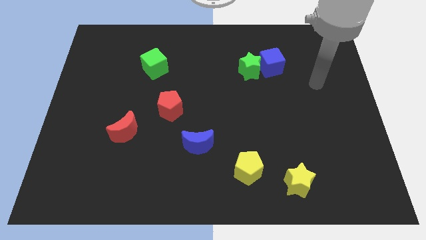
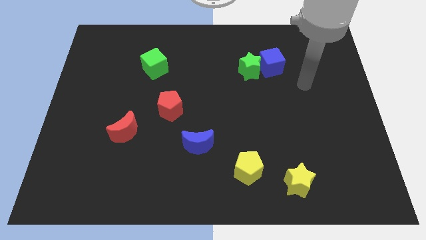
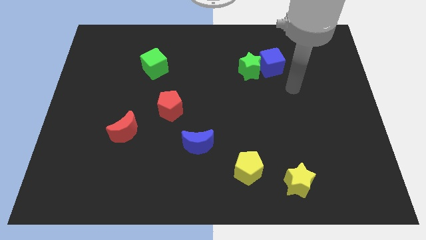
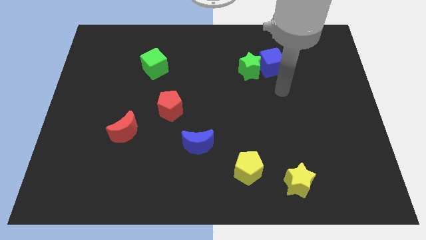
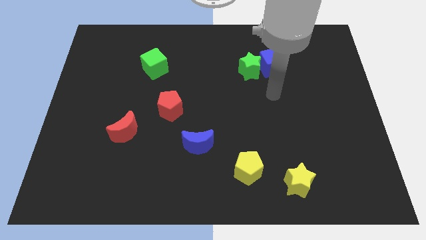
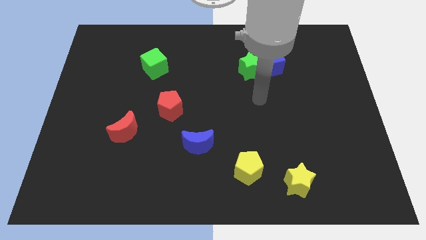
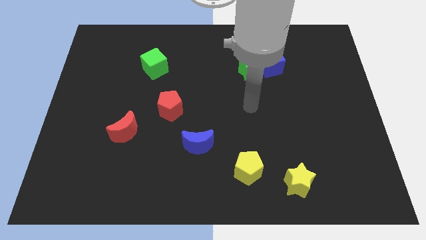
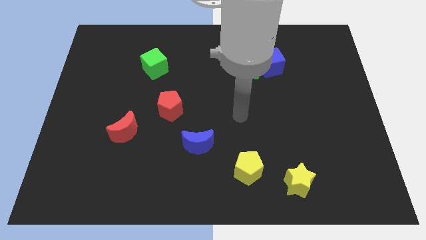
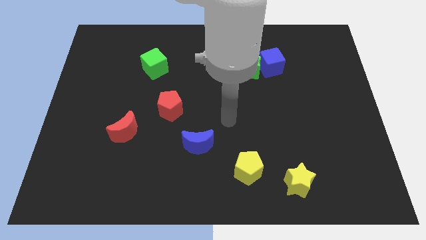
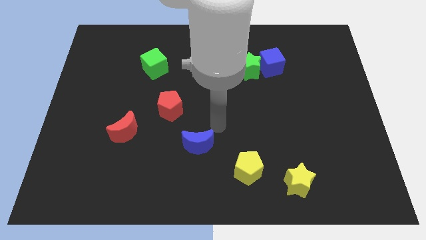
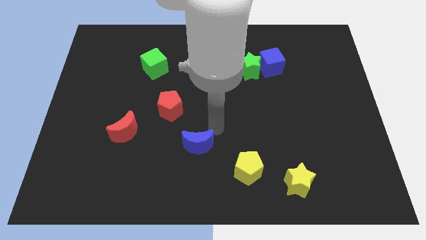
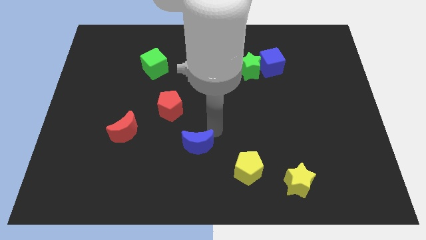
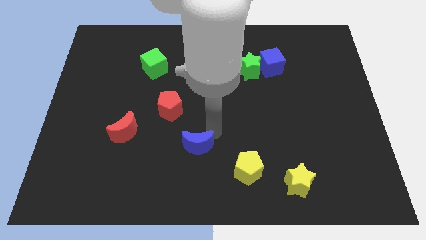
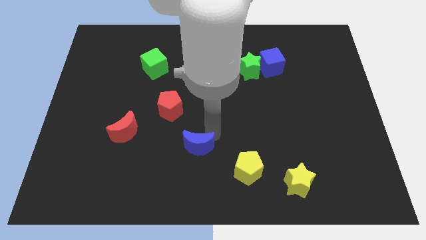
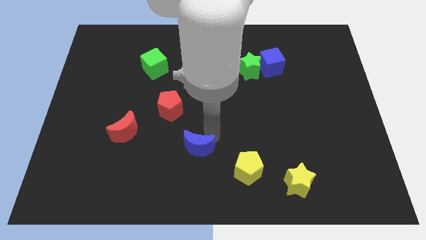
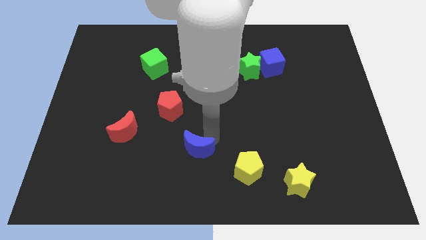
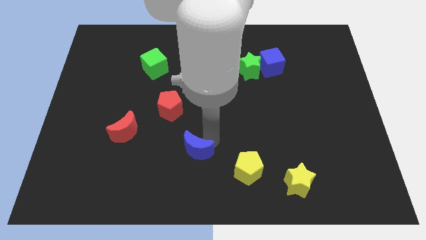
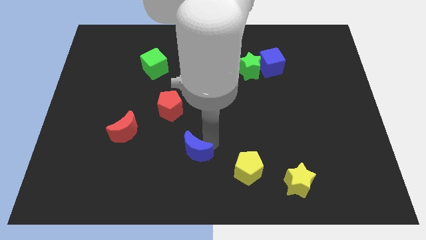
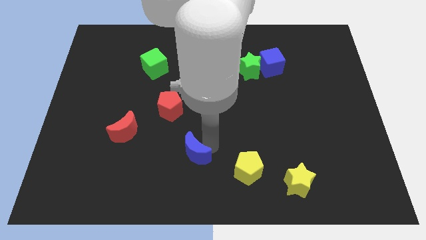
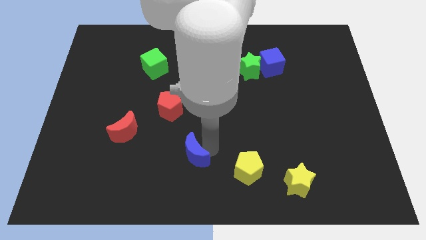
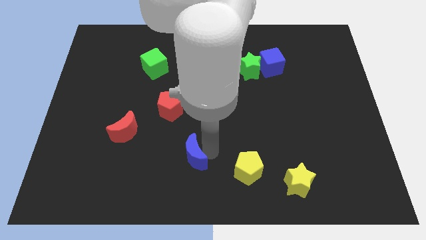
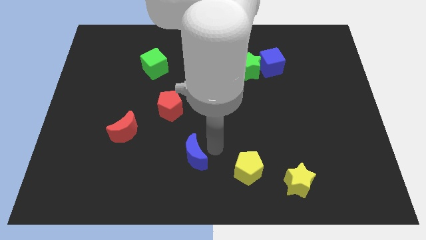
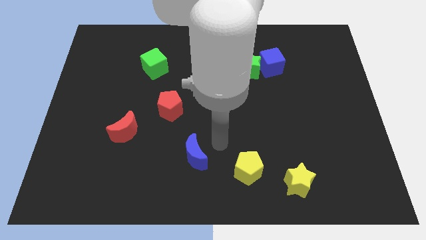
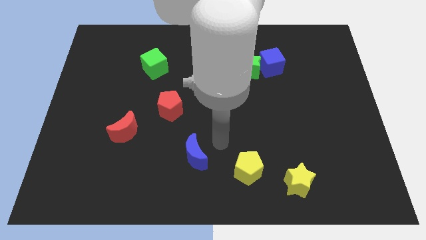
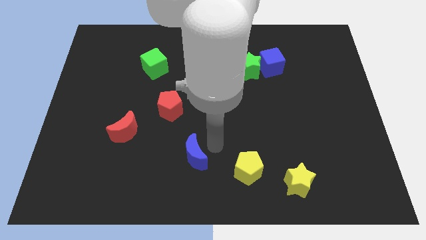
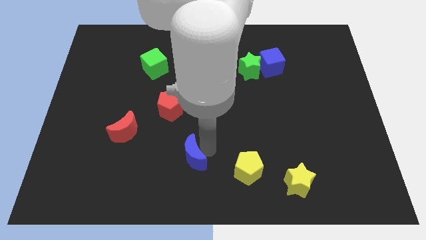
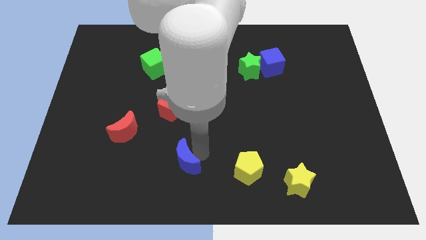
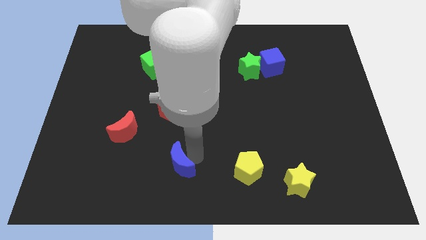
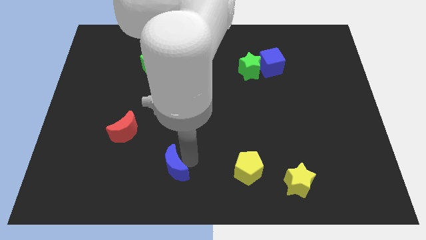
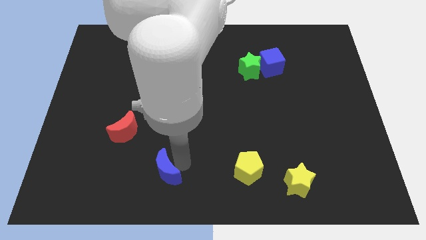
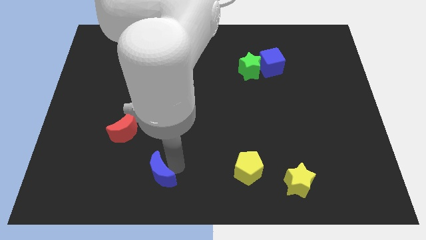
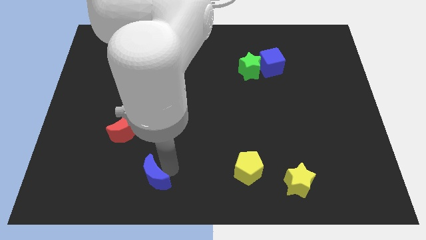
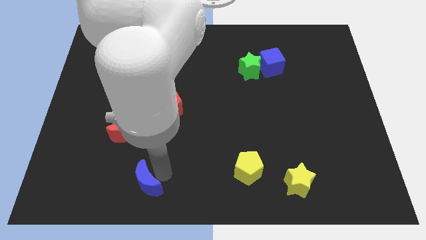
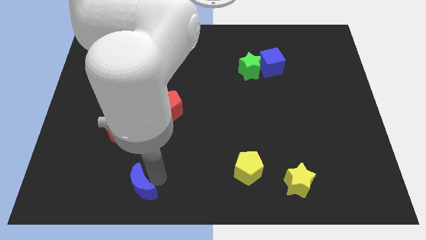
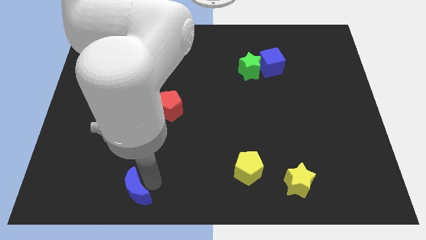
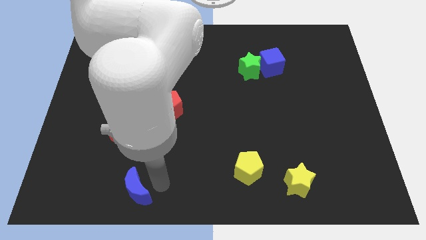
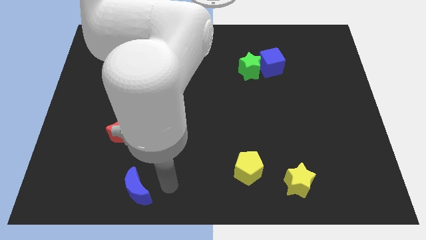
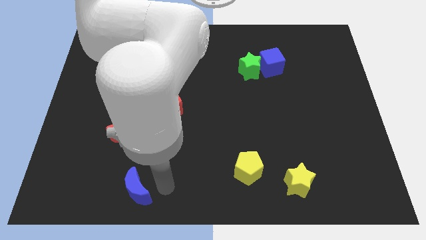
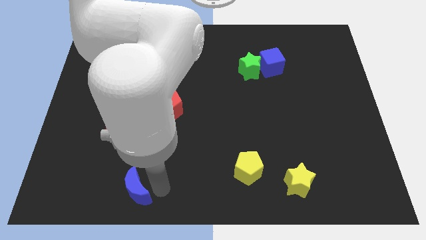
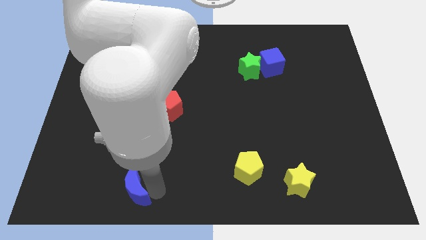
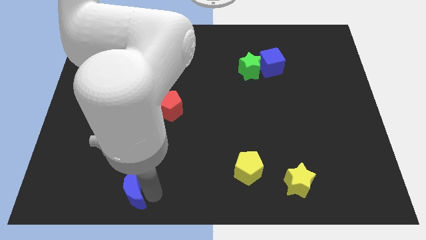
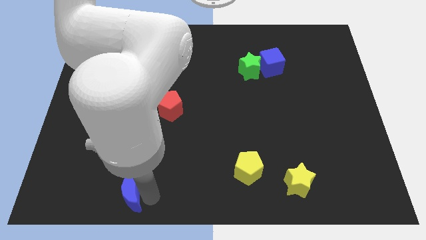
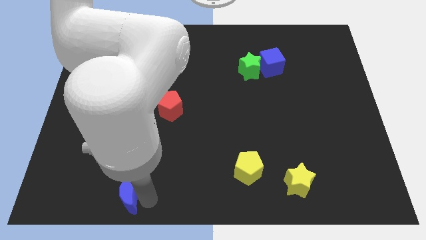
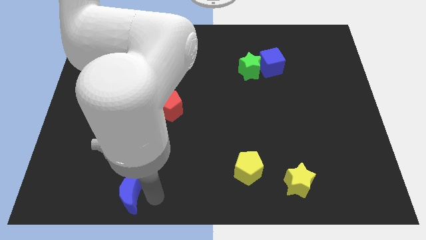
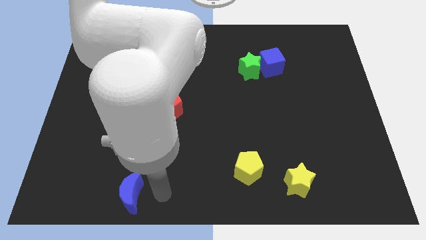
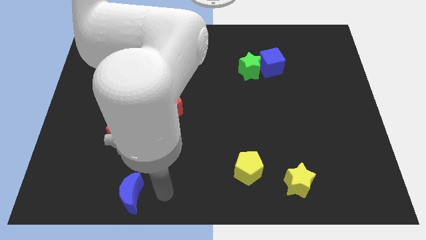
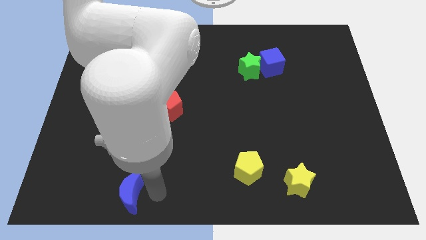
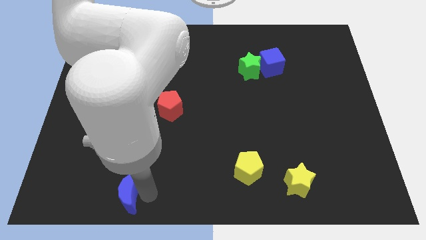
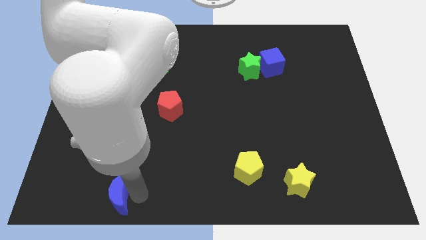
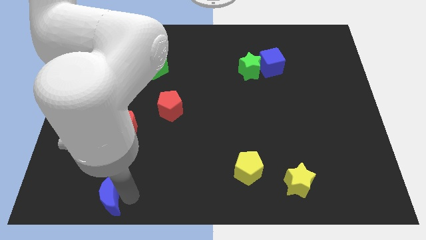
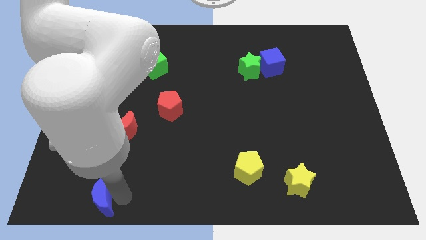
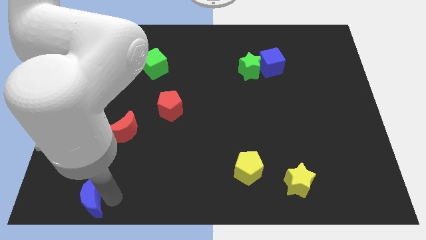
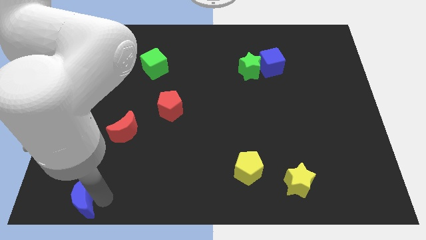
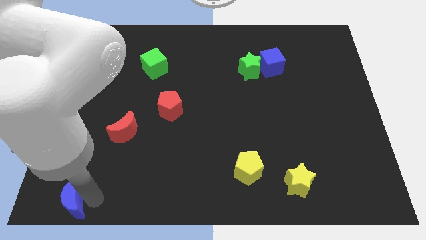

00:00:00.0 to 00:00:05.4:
push the blue moon to the bottom left of the board

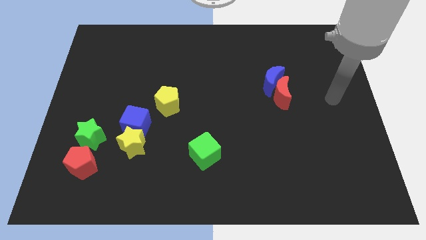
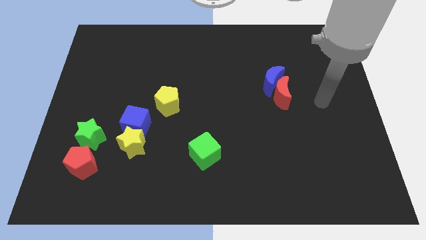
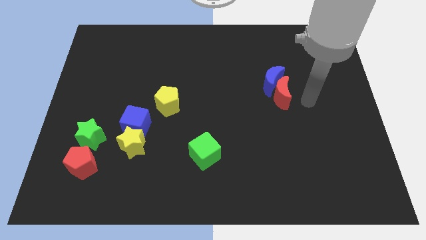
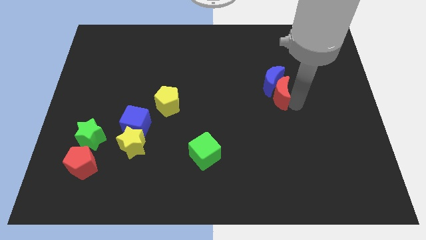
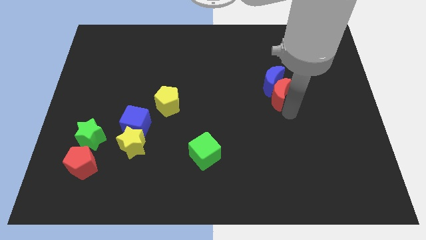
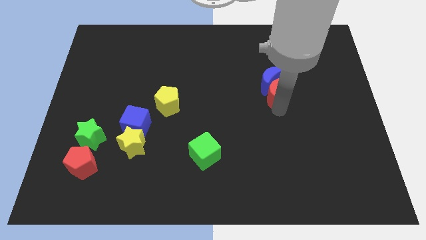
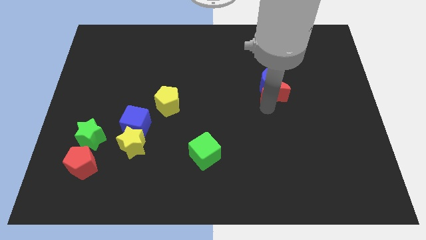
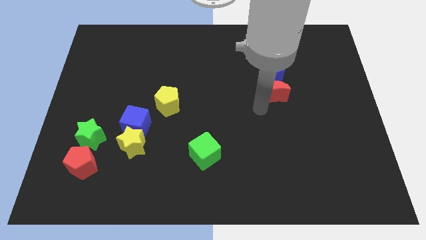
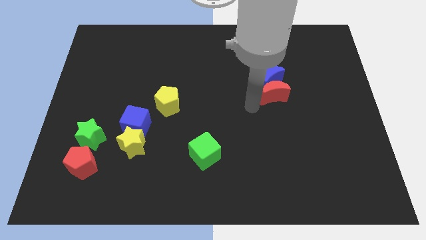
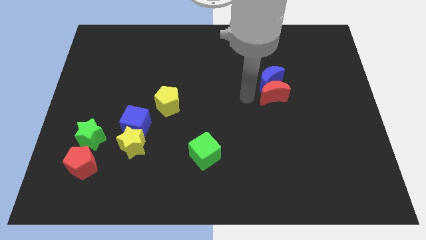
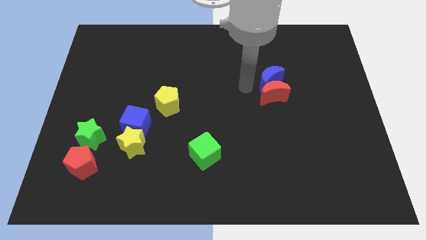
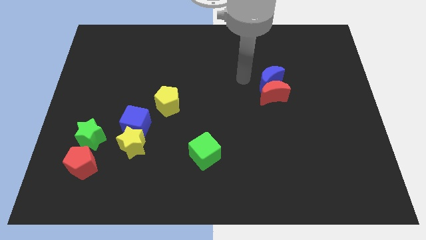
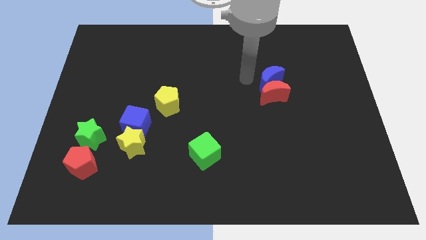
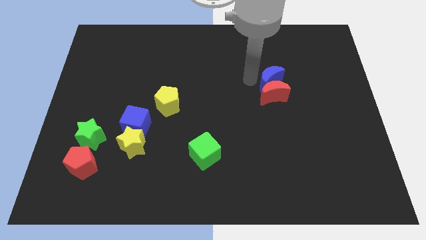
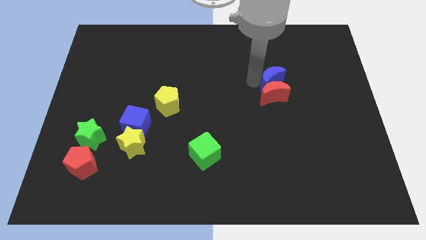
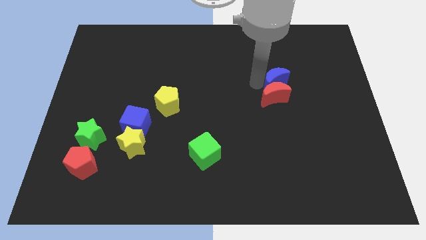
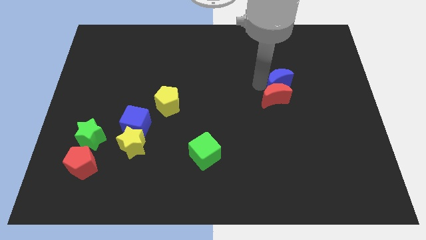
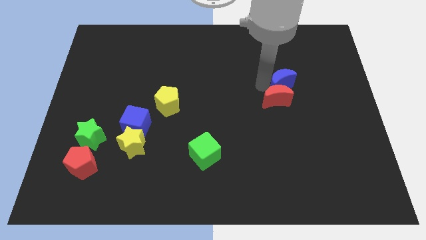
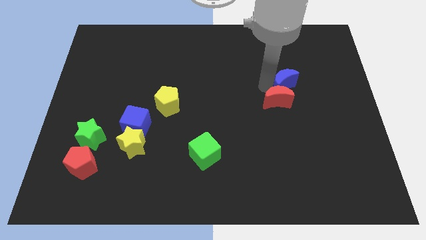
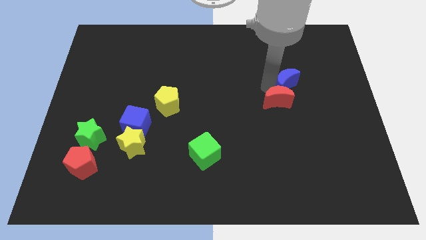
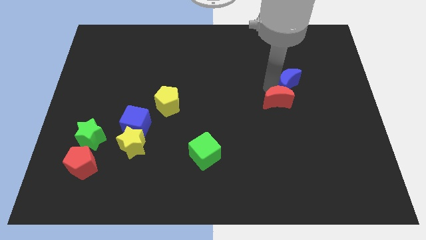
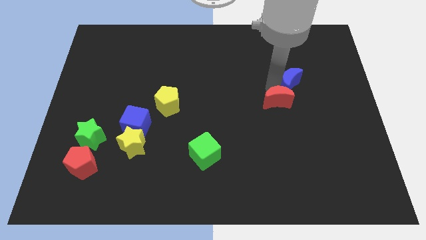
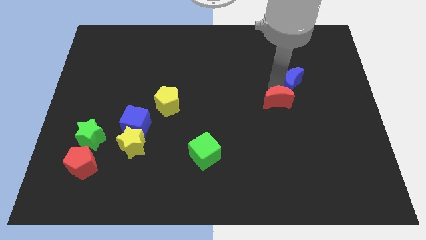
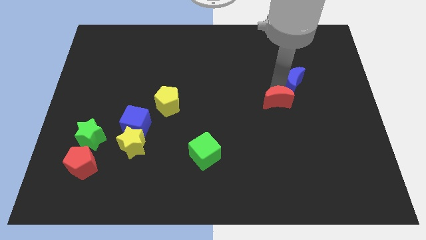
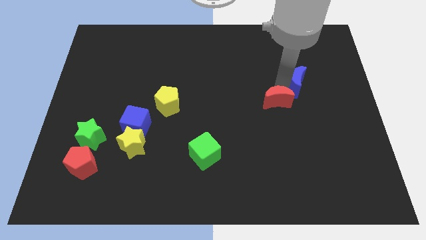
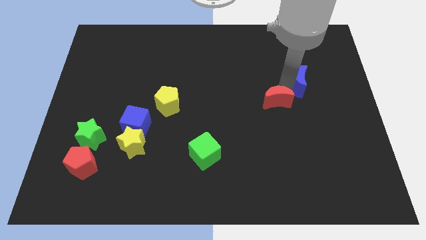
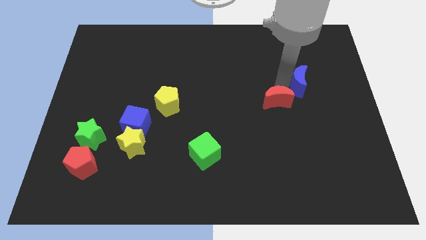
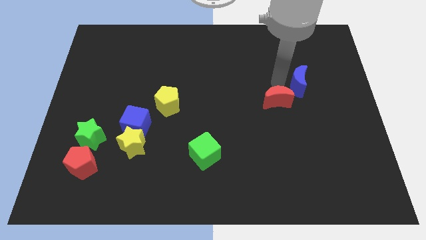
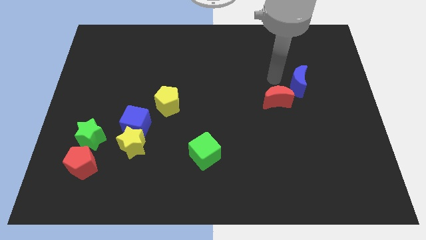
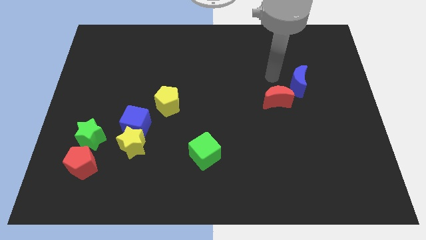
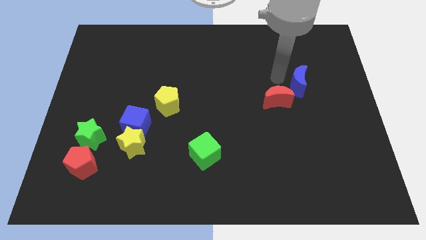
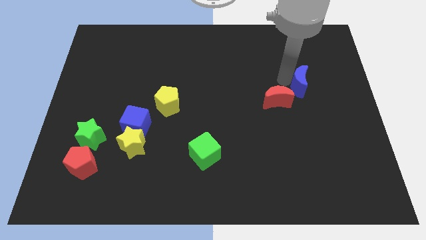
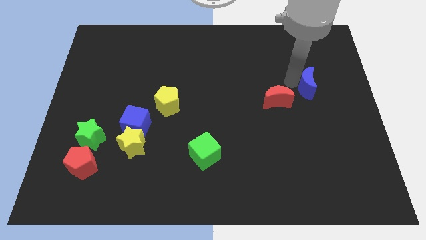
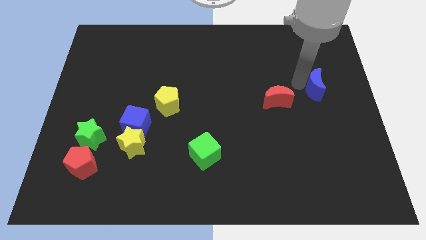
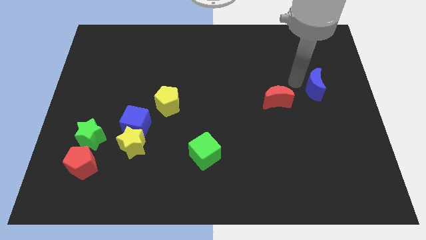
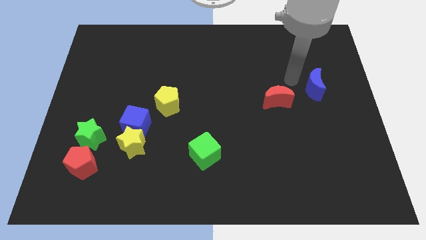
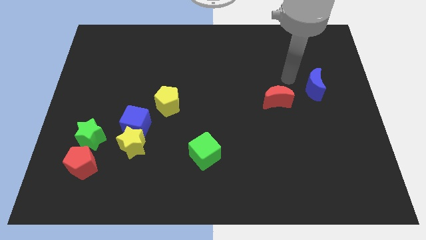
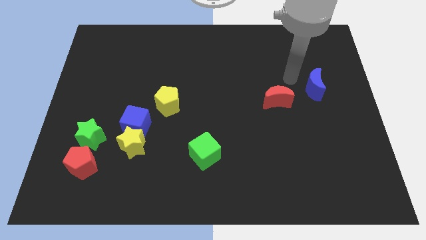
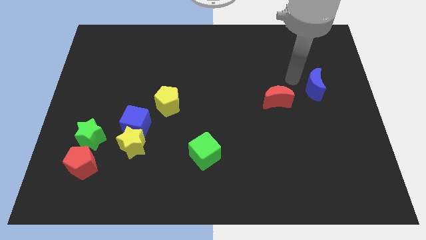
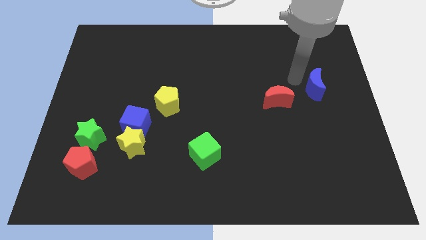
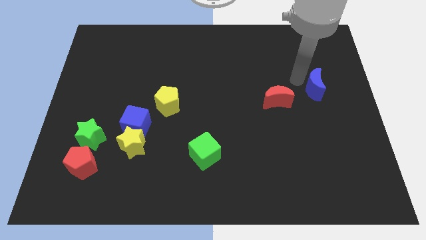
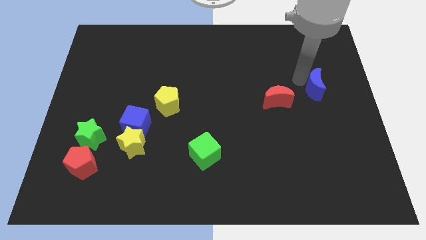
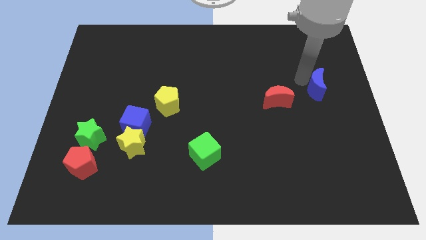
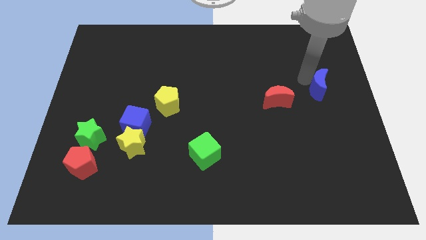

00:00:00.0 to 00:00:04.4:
move the blue moon to the right side of the board
